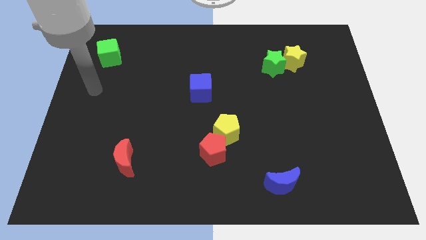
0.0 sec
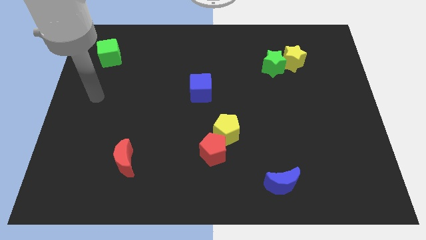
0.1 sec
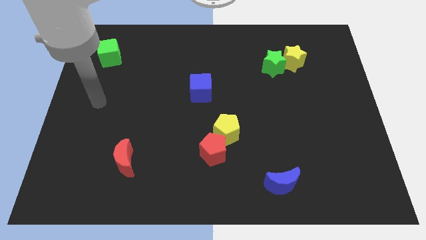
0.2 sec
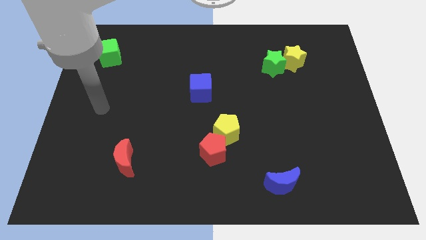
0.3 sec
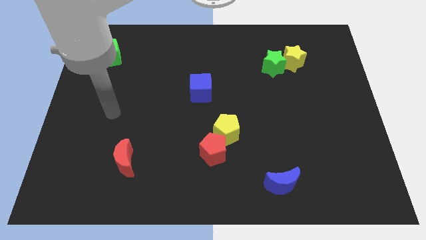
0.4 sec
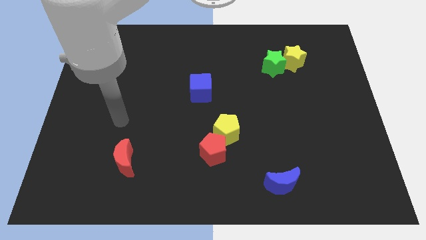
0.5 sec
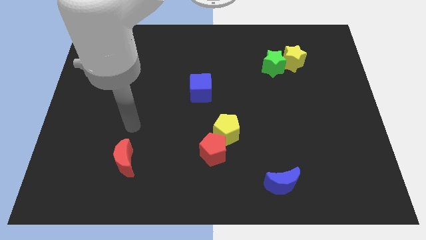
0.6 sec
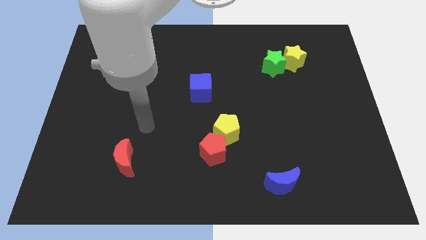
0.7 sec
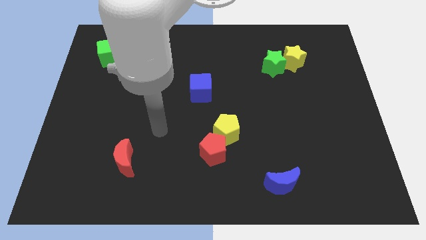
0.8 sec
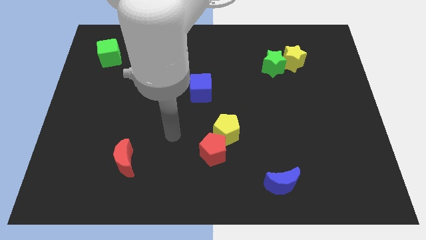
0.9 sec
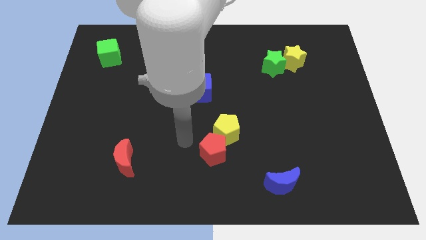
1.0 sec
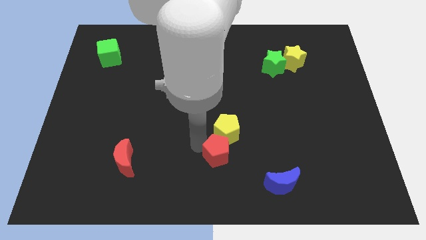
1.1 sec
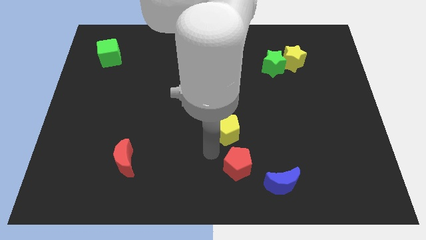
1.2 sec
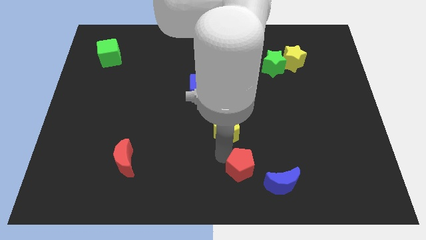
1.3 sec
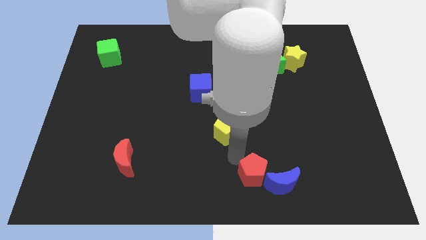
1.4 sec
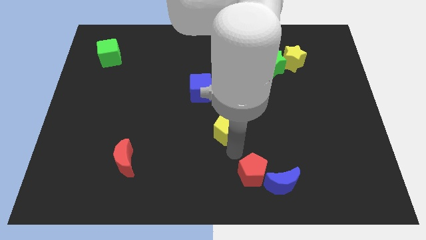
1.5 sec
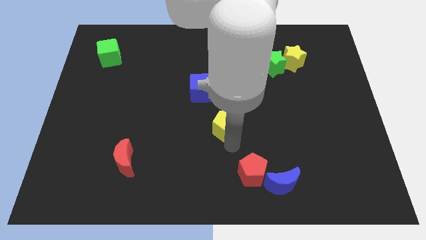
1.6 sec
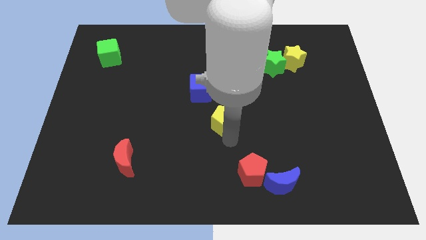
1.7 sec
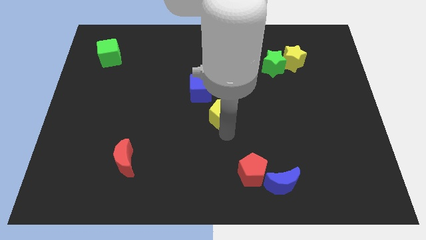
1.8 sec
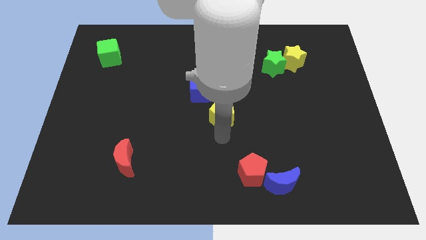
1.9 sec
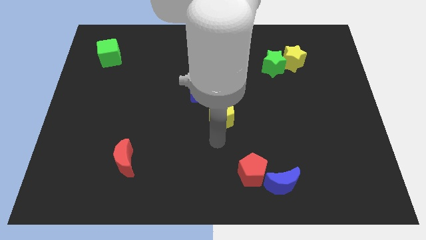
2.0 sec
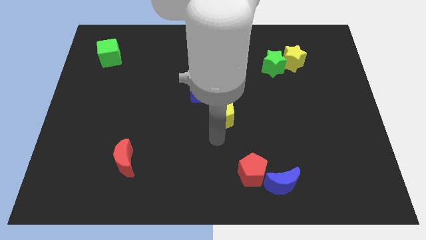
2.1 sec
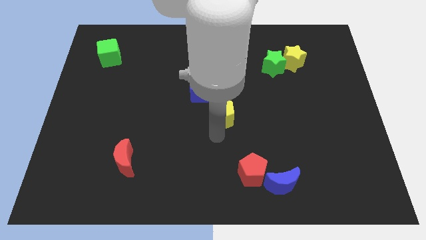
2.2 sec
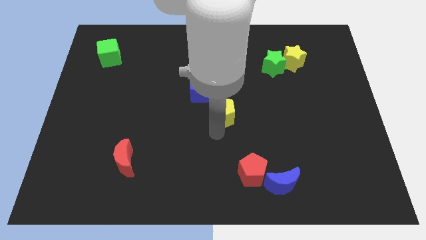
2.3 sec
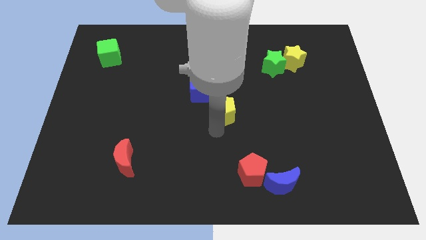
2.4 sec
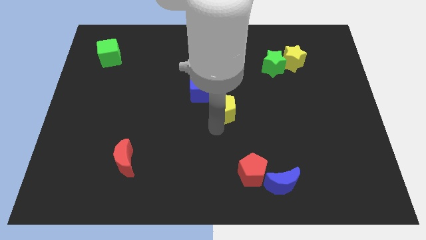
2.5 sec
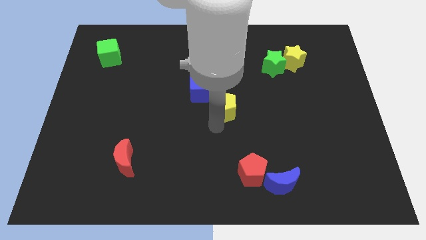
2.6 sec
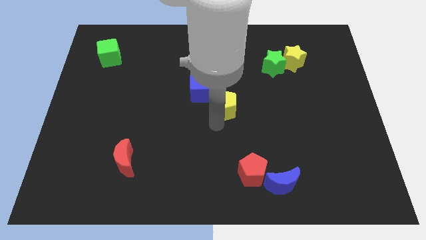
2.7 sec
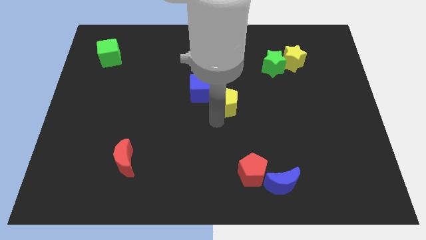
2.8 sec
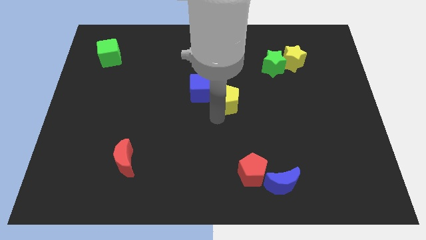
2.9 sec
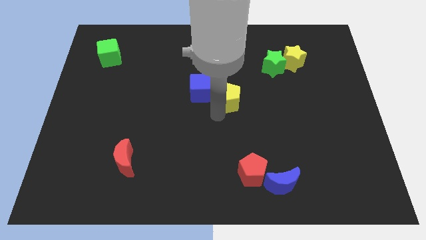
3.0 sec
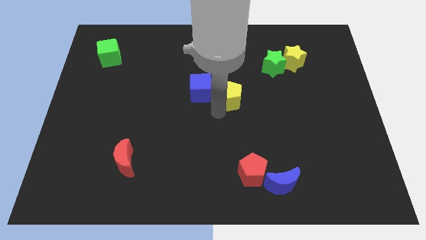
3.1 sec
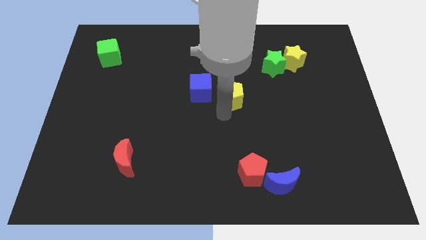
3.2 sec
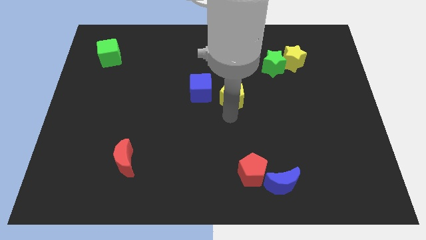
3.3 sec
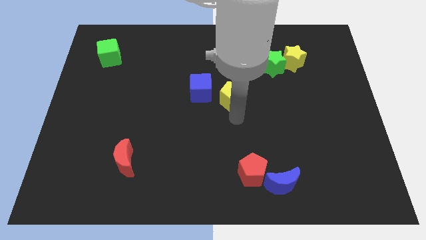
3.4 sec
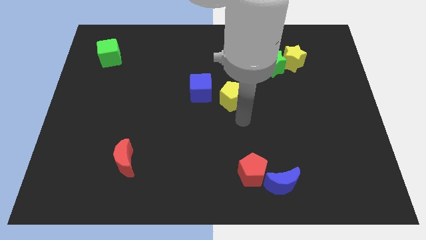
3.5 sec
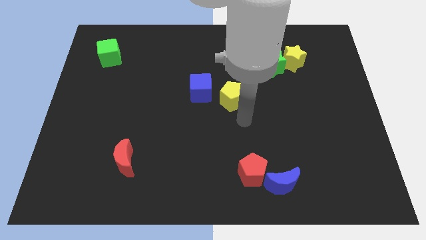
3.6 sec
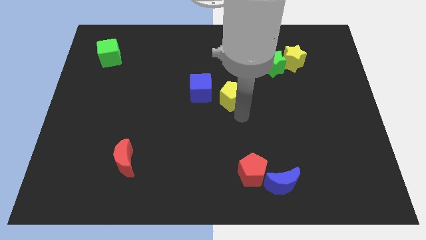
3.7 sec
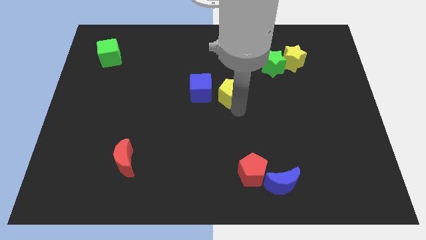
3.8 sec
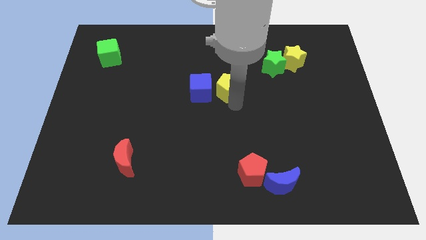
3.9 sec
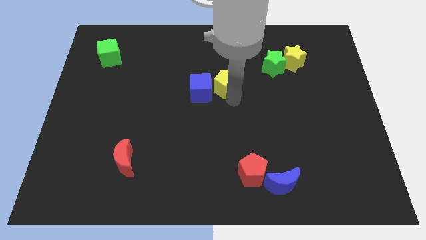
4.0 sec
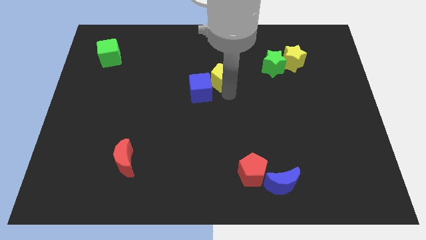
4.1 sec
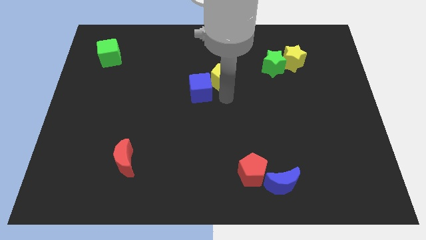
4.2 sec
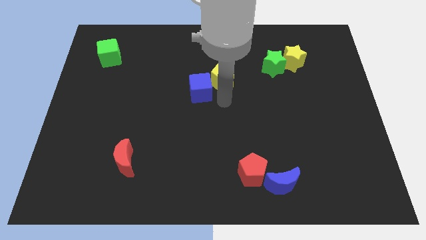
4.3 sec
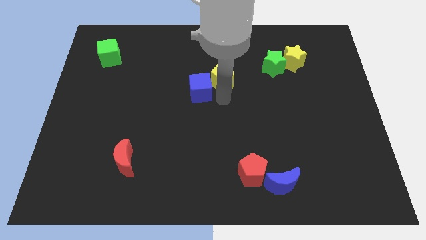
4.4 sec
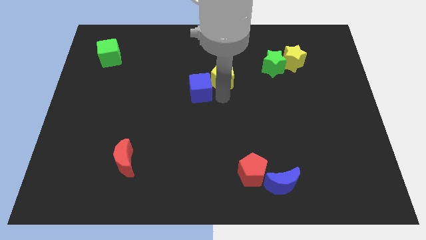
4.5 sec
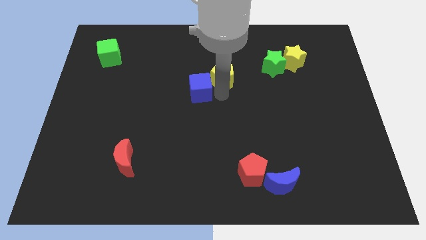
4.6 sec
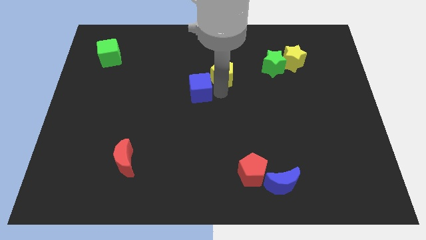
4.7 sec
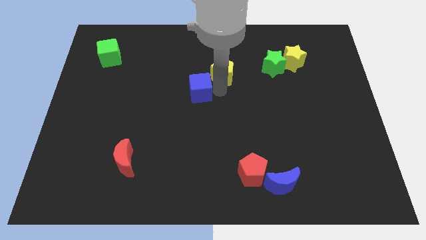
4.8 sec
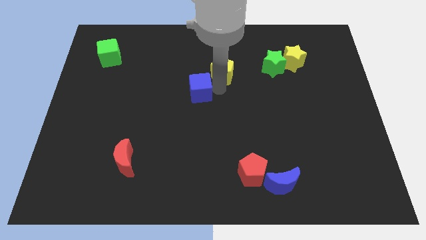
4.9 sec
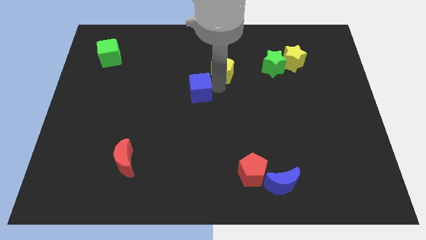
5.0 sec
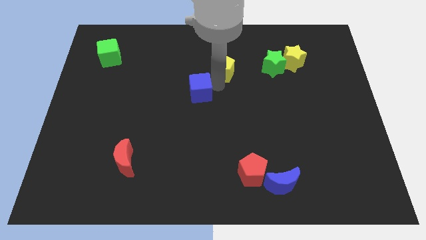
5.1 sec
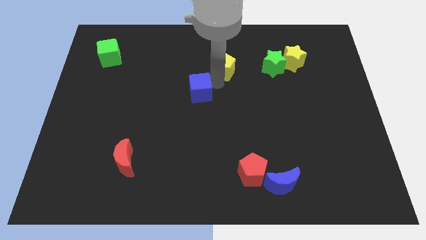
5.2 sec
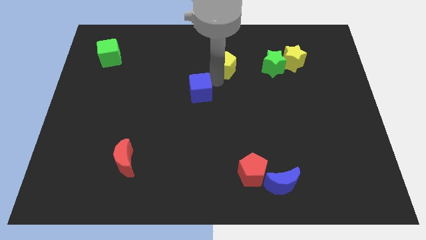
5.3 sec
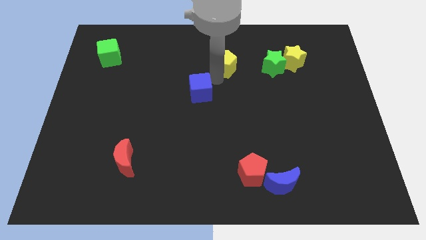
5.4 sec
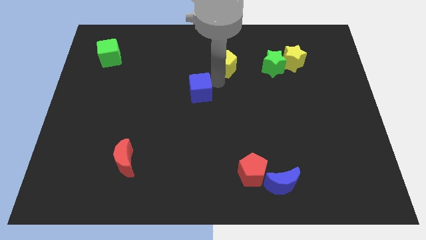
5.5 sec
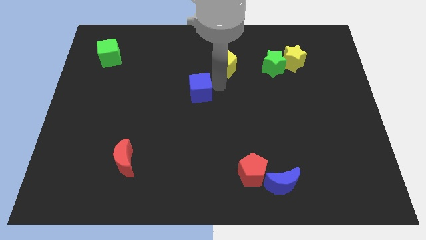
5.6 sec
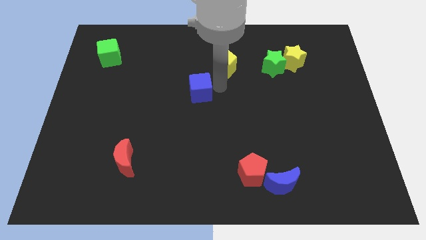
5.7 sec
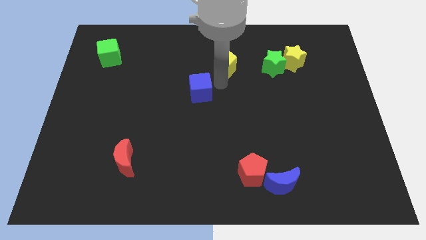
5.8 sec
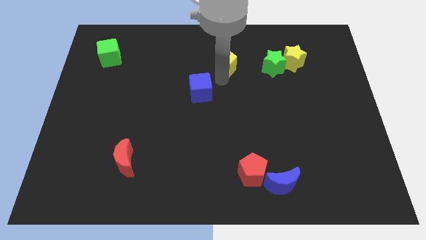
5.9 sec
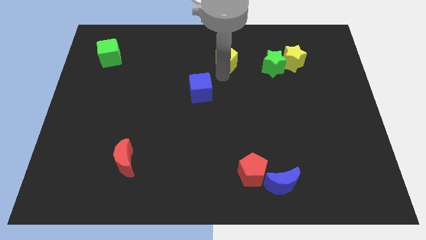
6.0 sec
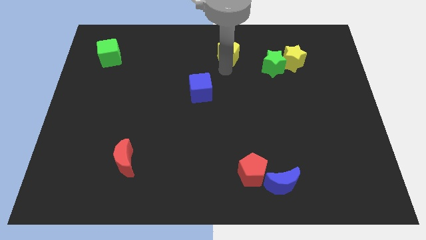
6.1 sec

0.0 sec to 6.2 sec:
move the yellow pentagon to the top
